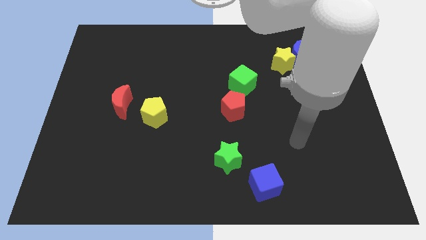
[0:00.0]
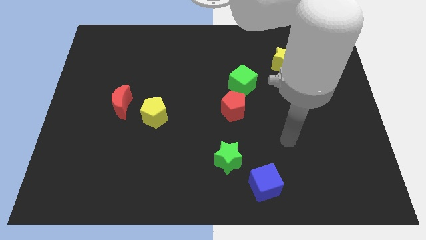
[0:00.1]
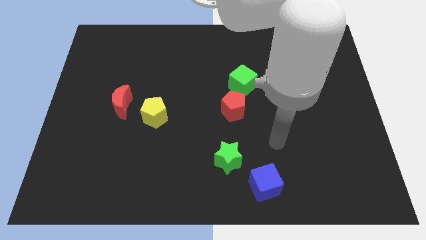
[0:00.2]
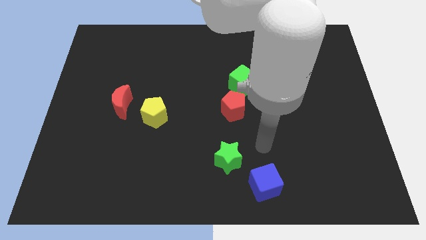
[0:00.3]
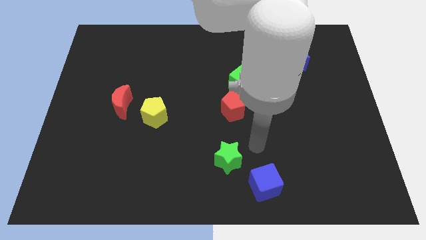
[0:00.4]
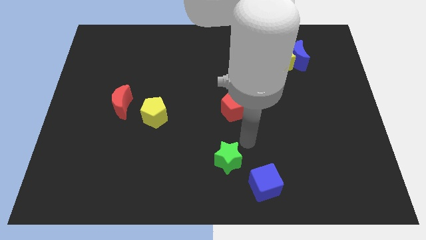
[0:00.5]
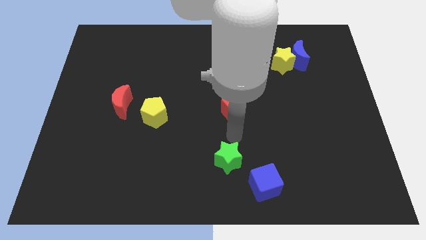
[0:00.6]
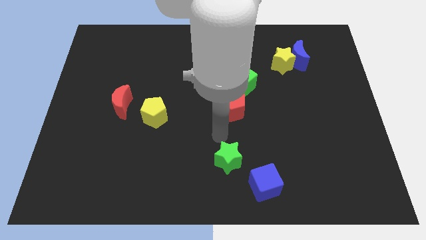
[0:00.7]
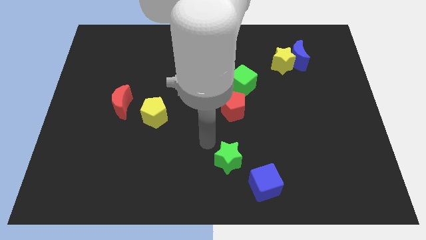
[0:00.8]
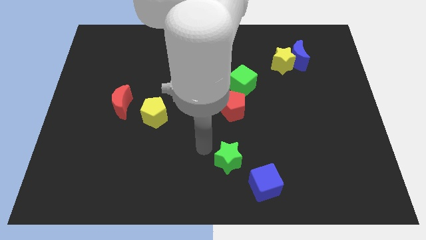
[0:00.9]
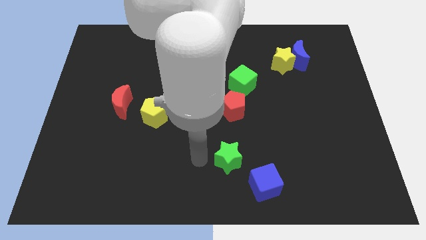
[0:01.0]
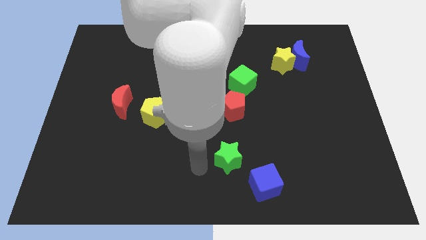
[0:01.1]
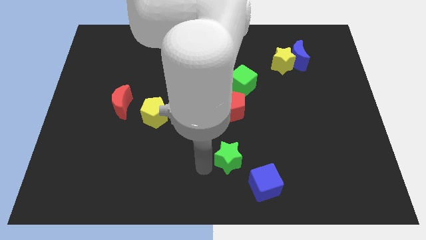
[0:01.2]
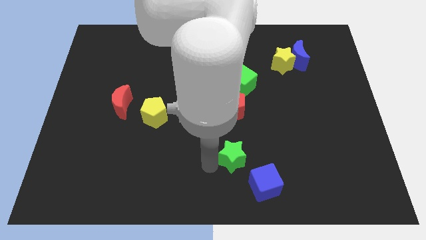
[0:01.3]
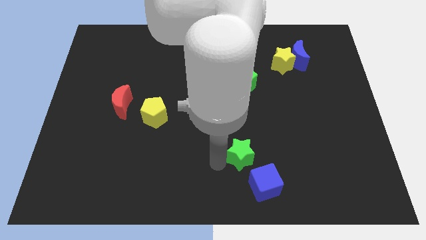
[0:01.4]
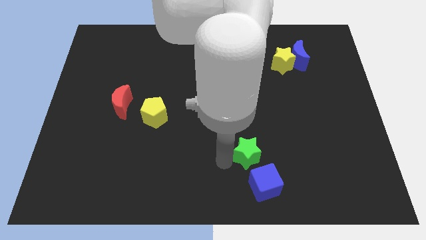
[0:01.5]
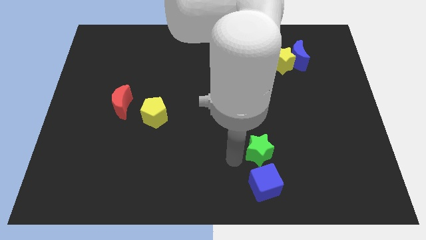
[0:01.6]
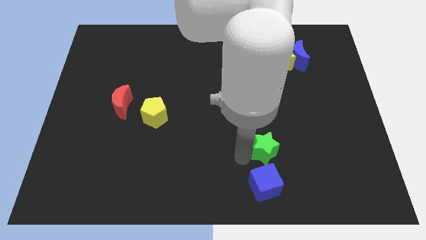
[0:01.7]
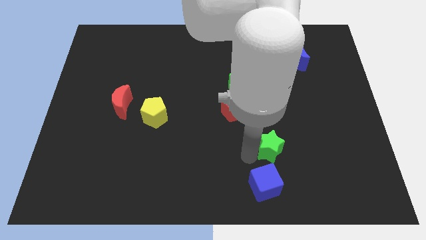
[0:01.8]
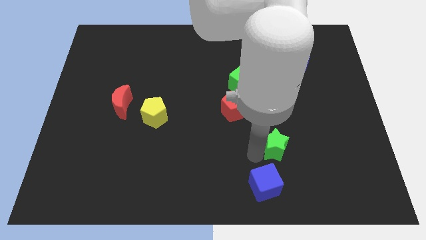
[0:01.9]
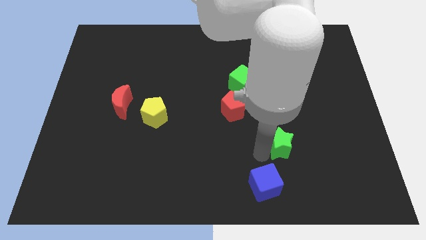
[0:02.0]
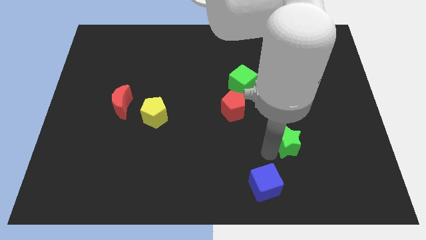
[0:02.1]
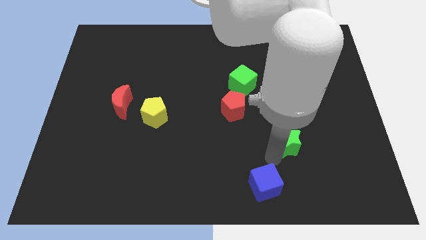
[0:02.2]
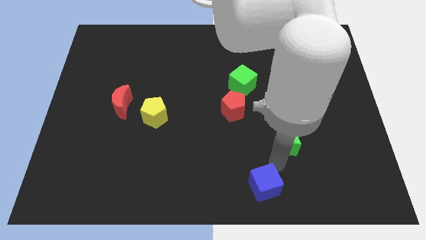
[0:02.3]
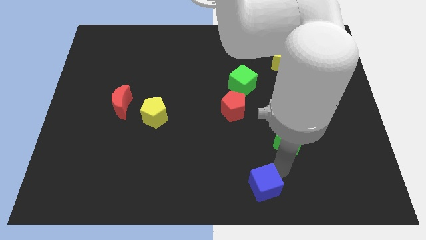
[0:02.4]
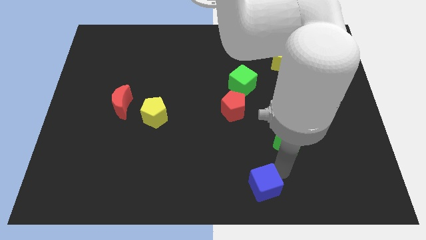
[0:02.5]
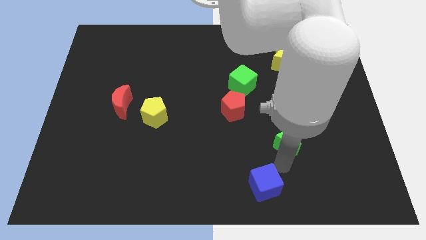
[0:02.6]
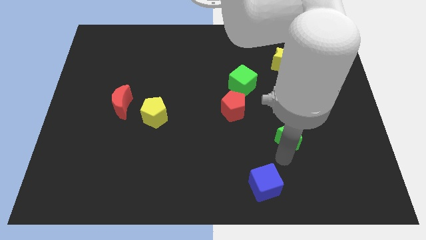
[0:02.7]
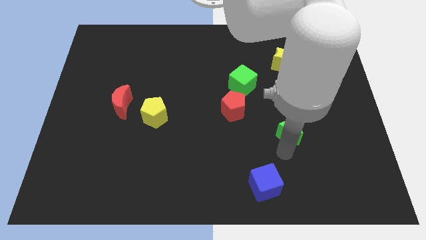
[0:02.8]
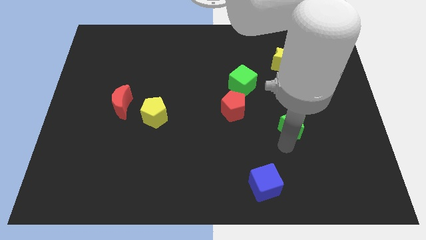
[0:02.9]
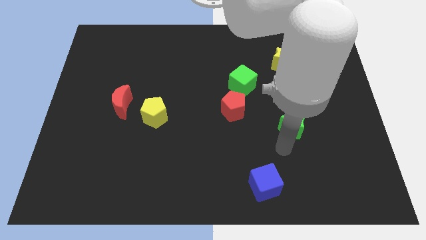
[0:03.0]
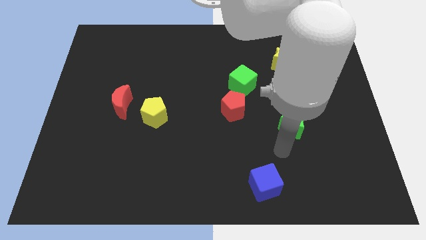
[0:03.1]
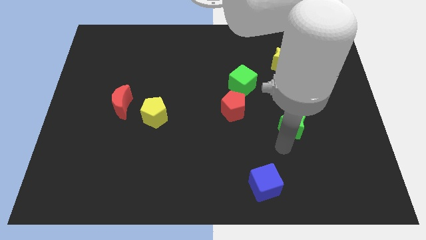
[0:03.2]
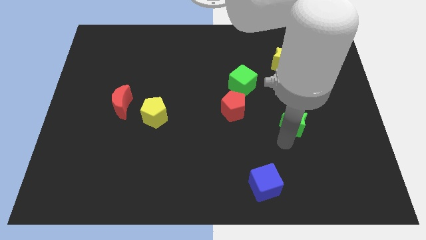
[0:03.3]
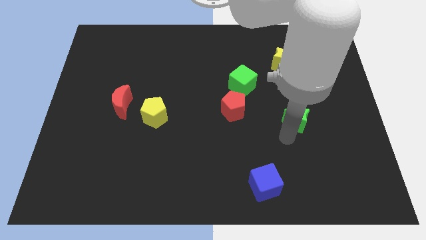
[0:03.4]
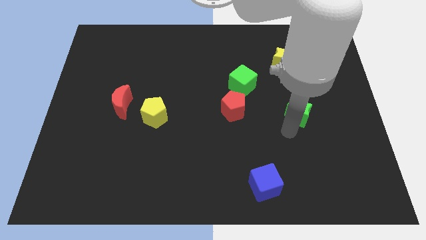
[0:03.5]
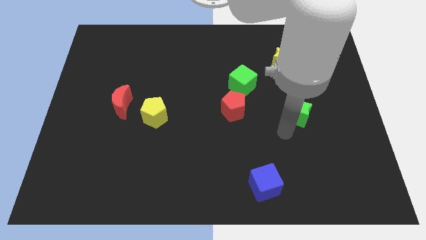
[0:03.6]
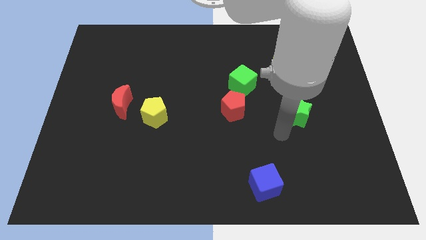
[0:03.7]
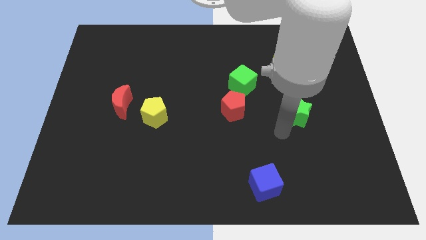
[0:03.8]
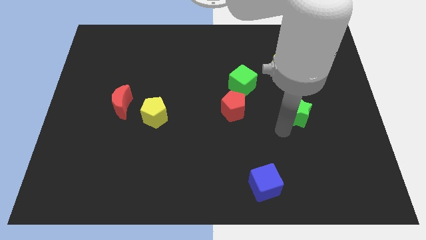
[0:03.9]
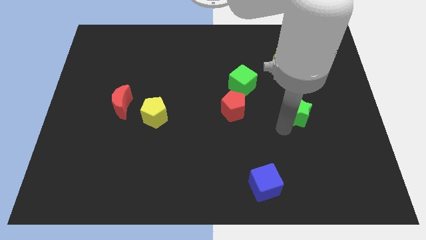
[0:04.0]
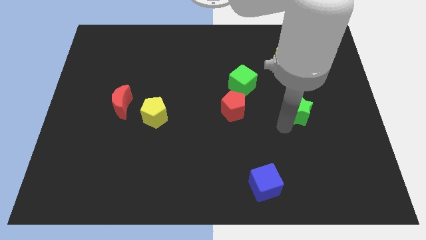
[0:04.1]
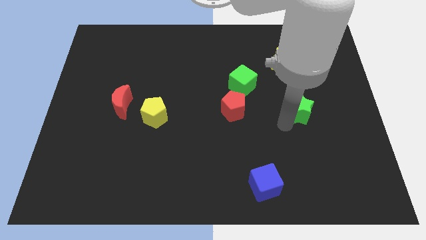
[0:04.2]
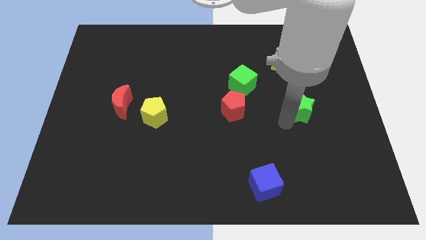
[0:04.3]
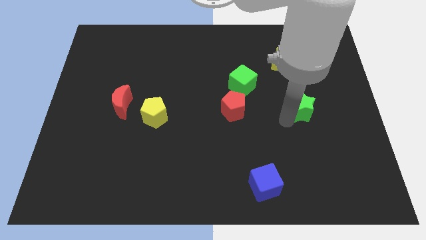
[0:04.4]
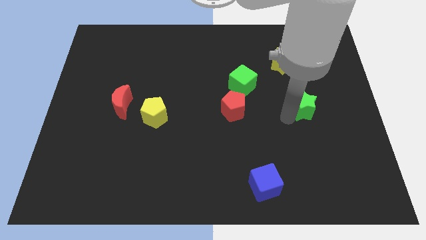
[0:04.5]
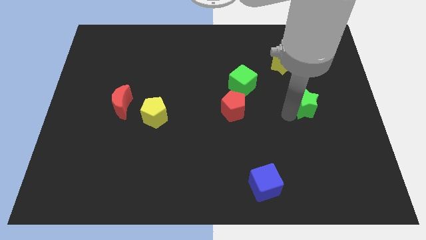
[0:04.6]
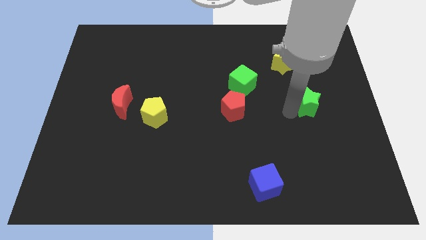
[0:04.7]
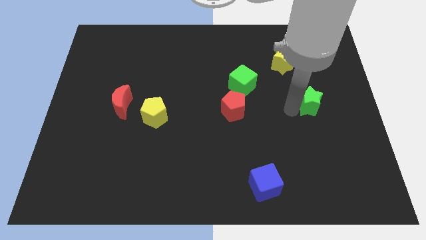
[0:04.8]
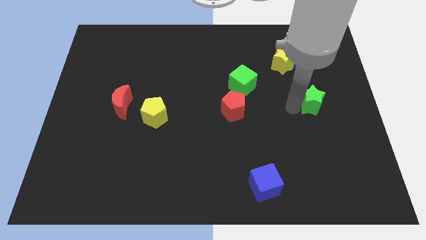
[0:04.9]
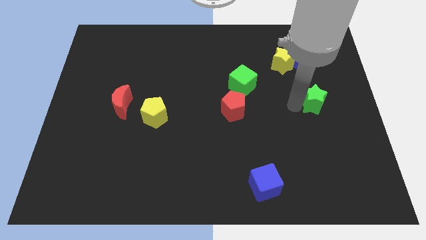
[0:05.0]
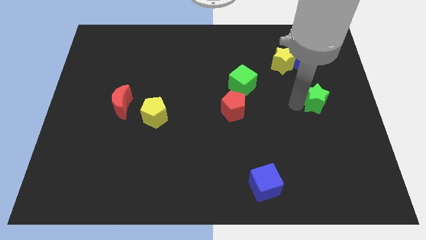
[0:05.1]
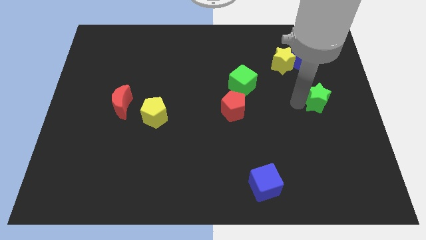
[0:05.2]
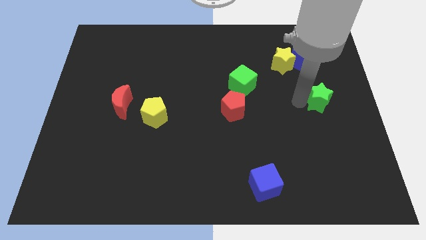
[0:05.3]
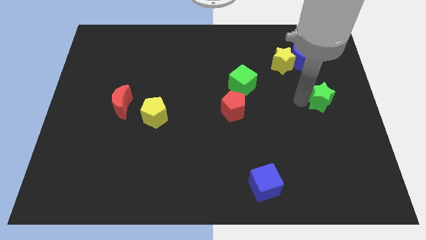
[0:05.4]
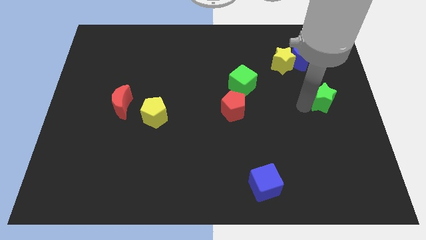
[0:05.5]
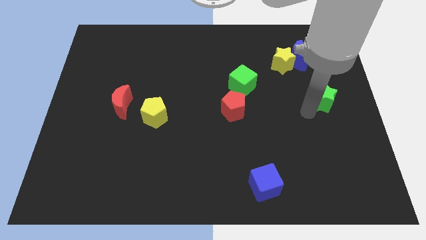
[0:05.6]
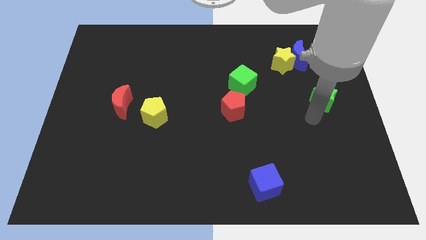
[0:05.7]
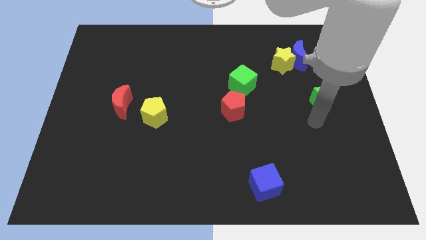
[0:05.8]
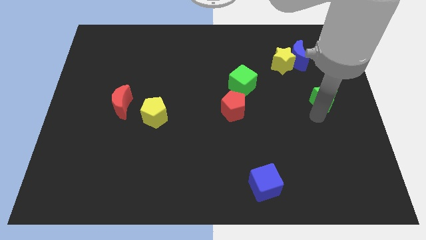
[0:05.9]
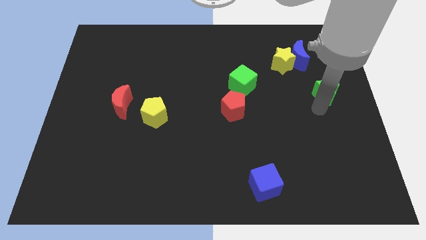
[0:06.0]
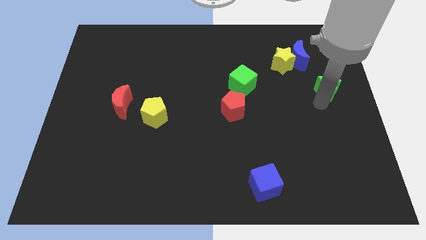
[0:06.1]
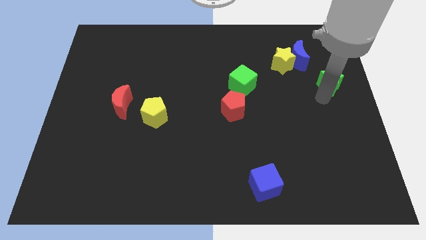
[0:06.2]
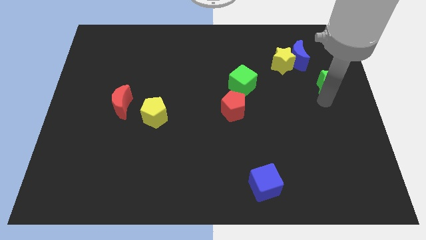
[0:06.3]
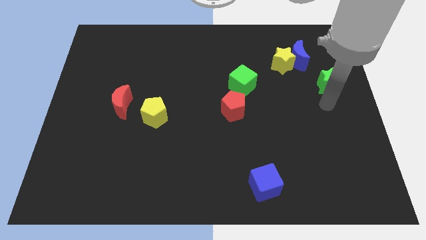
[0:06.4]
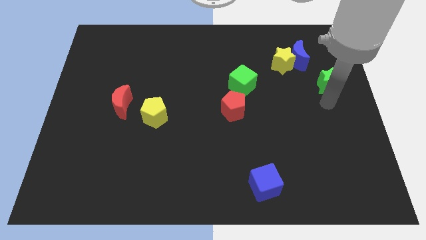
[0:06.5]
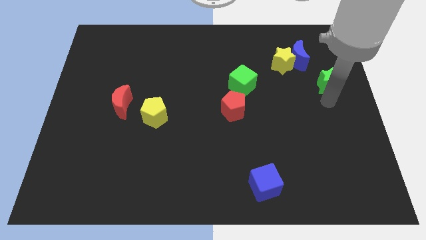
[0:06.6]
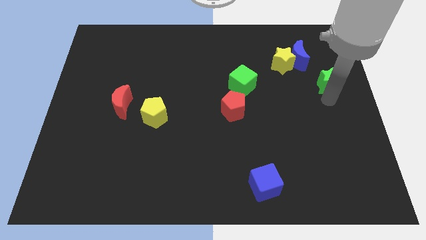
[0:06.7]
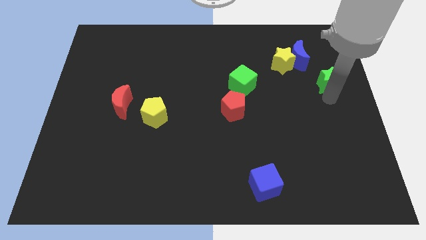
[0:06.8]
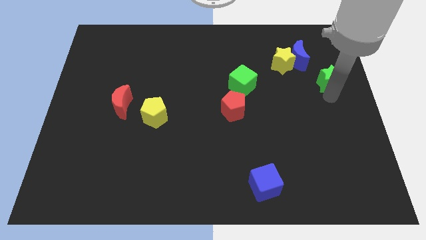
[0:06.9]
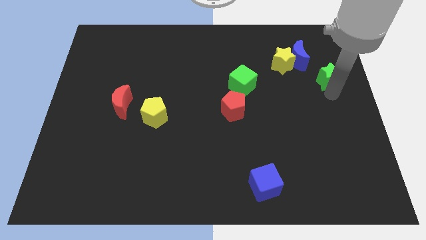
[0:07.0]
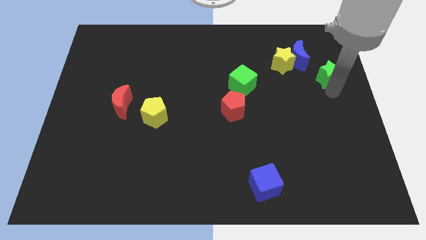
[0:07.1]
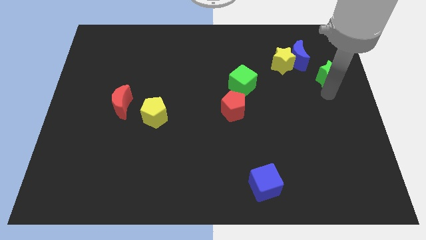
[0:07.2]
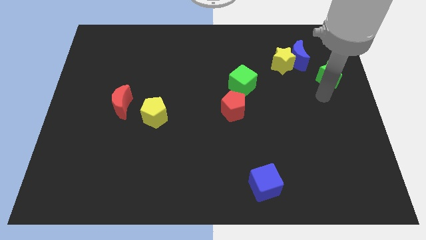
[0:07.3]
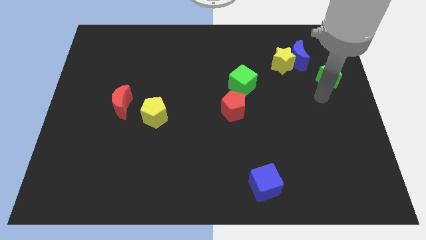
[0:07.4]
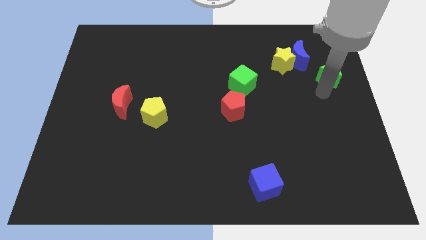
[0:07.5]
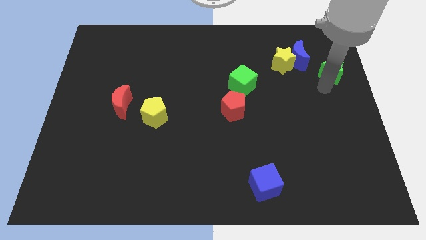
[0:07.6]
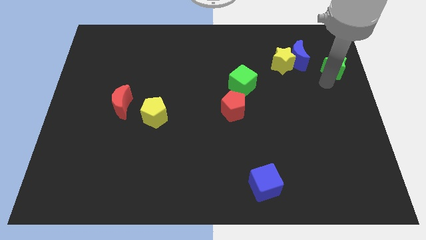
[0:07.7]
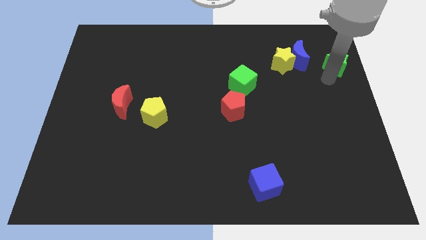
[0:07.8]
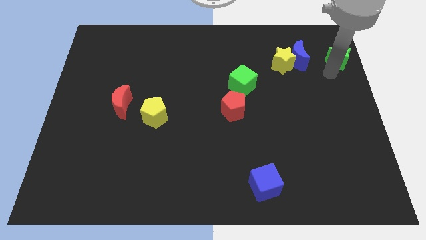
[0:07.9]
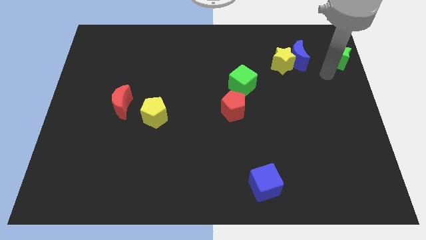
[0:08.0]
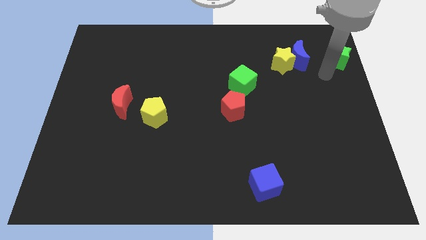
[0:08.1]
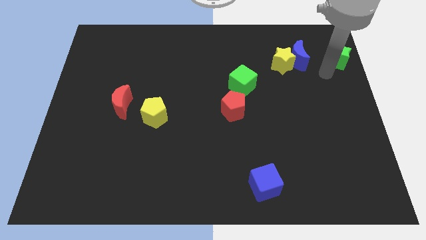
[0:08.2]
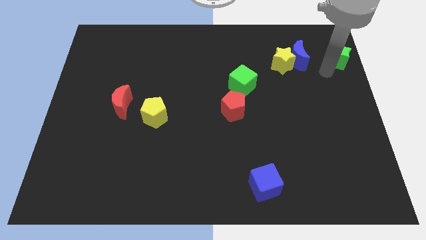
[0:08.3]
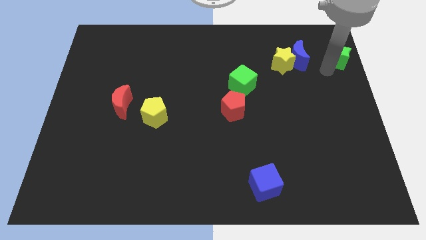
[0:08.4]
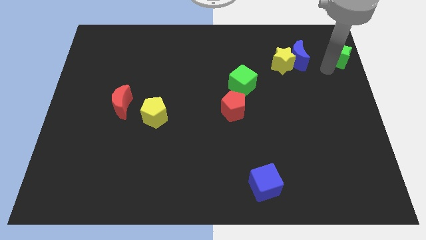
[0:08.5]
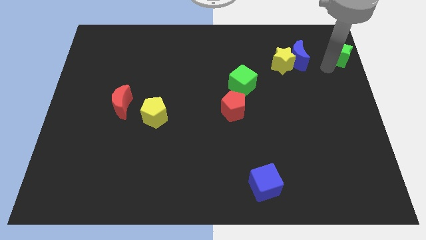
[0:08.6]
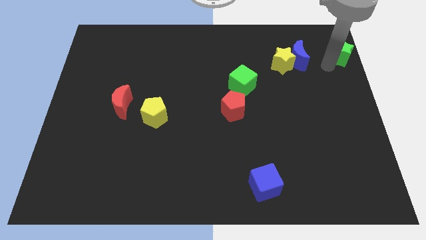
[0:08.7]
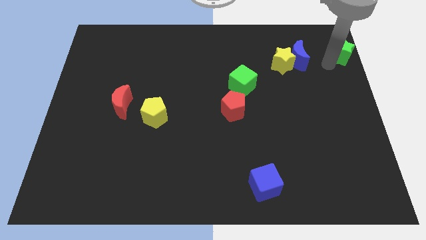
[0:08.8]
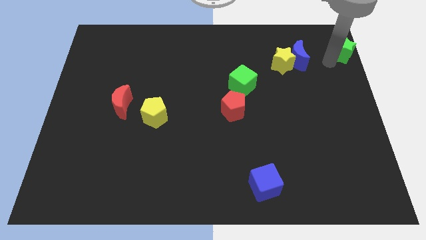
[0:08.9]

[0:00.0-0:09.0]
slide the green star to the top right corner
